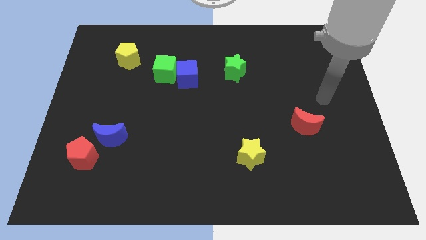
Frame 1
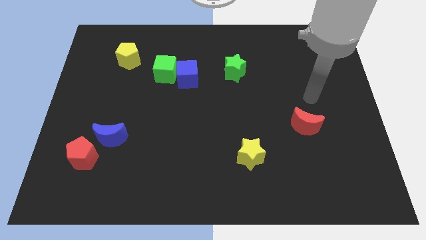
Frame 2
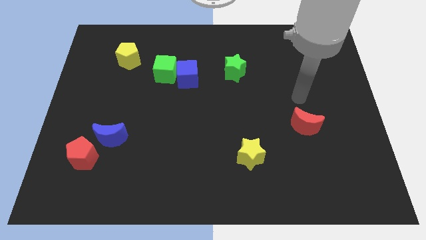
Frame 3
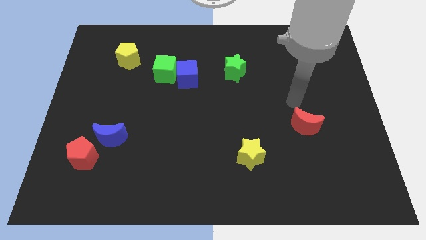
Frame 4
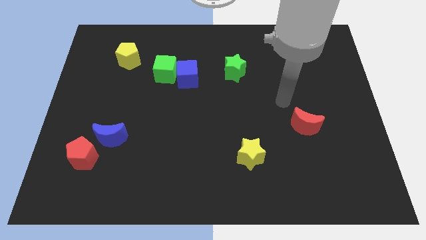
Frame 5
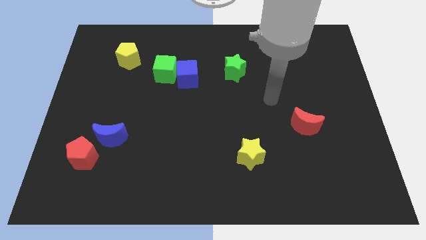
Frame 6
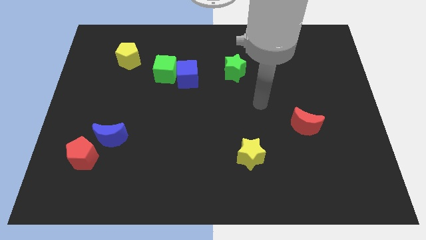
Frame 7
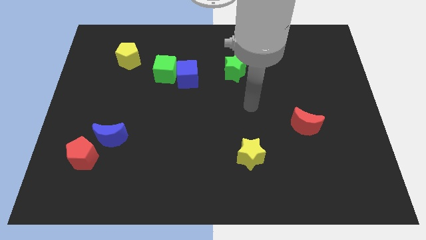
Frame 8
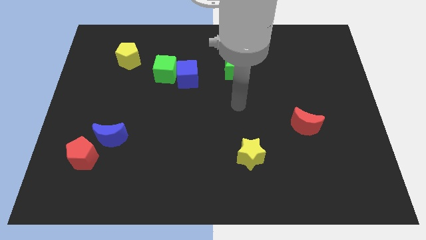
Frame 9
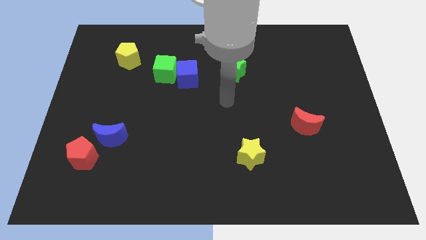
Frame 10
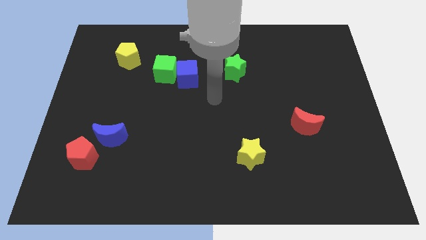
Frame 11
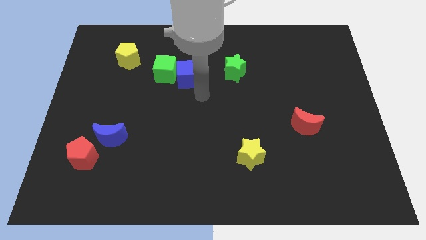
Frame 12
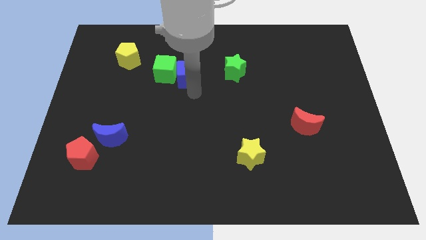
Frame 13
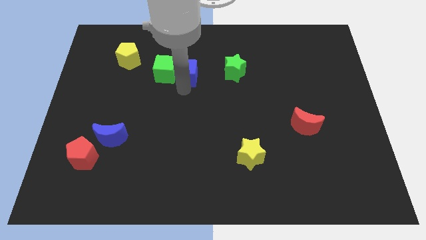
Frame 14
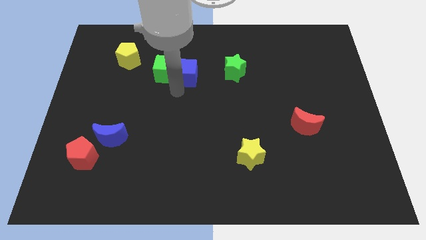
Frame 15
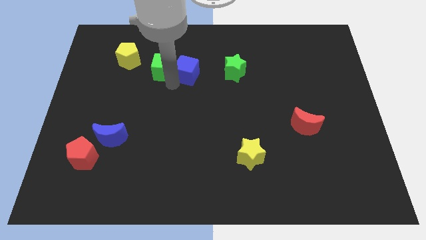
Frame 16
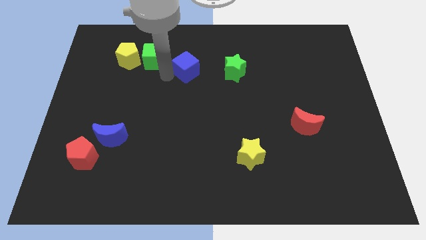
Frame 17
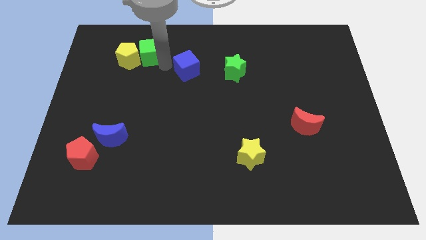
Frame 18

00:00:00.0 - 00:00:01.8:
separate the blue cube from the green cube

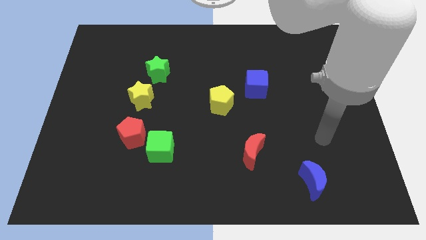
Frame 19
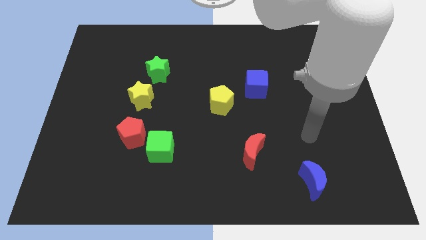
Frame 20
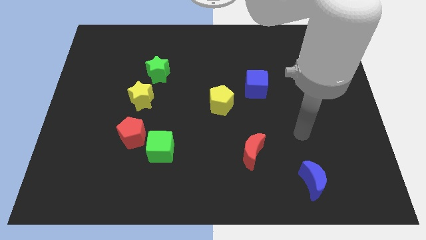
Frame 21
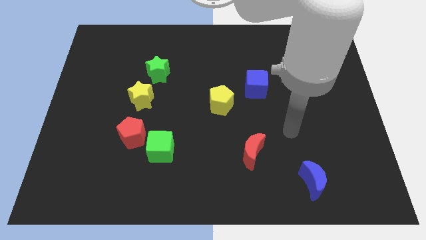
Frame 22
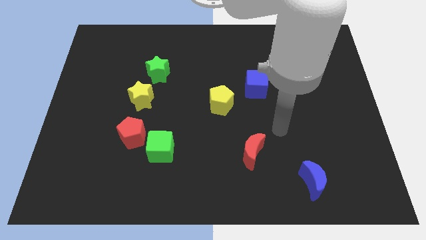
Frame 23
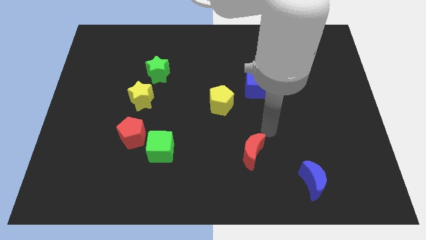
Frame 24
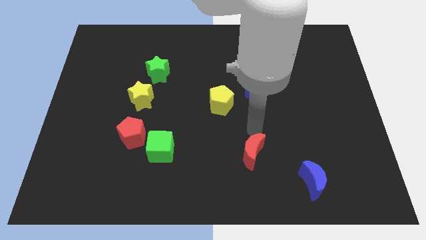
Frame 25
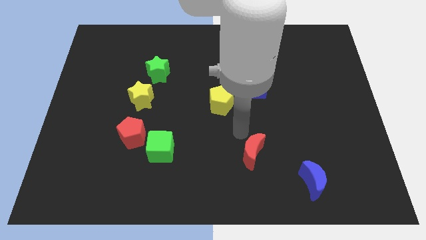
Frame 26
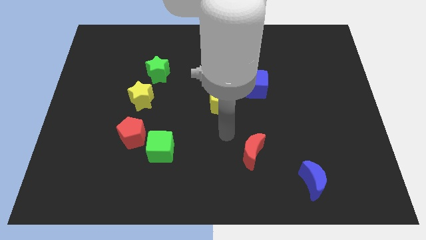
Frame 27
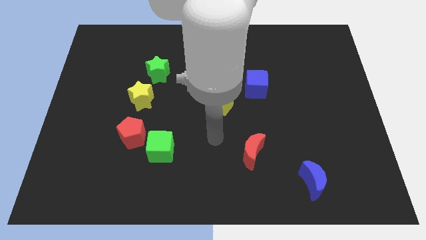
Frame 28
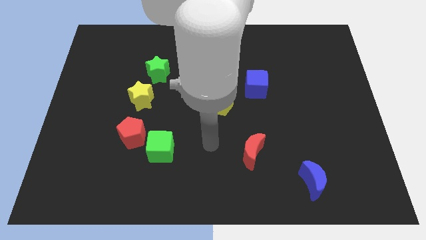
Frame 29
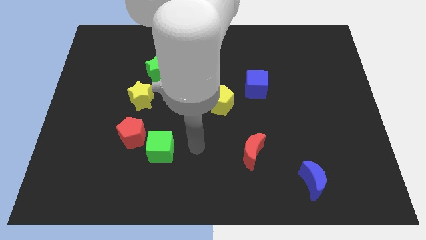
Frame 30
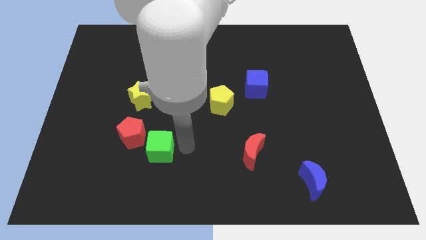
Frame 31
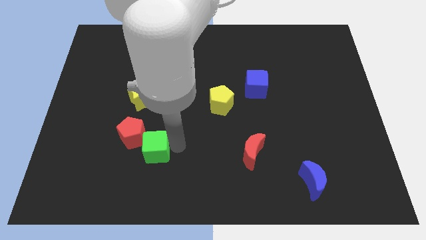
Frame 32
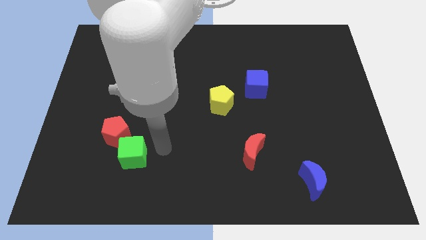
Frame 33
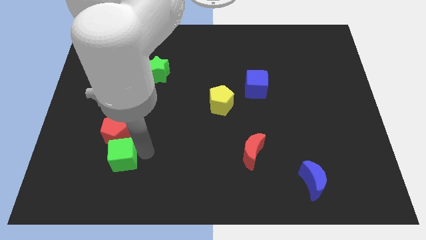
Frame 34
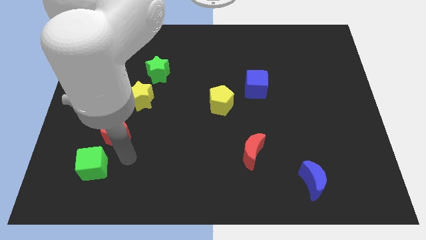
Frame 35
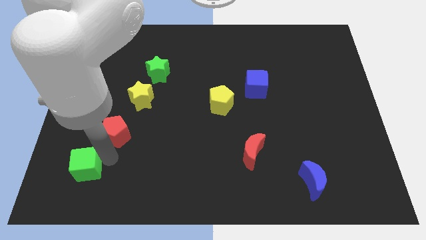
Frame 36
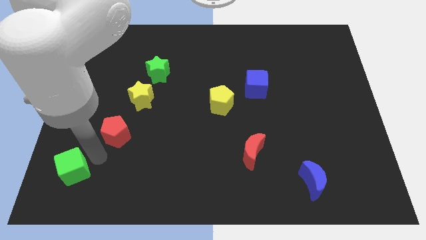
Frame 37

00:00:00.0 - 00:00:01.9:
move the red pentagon away from the green cube

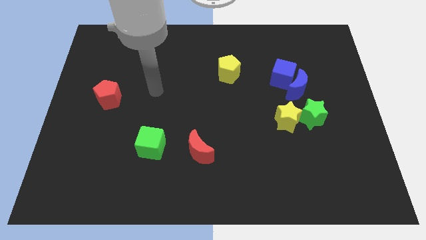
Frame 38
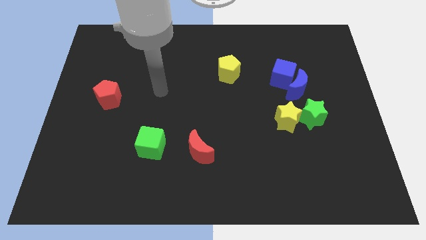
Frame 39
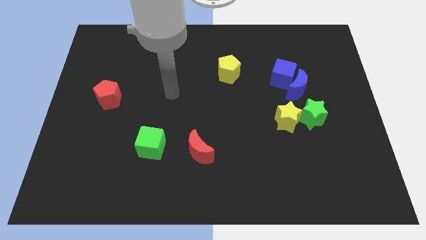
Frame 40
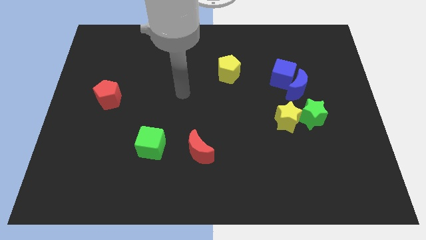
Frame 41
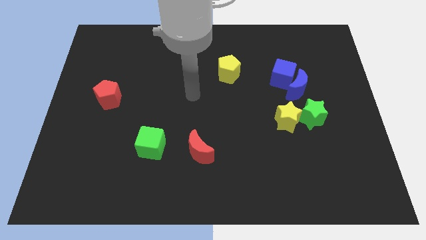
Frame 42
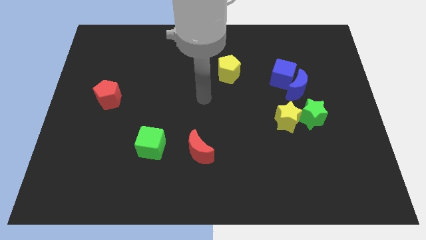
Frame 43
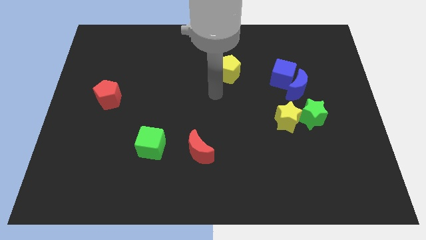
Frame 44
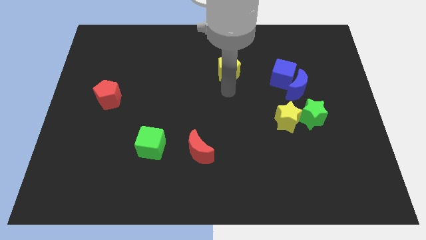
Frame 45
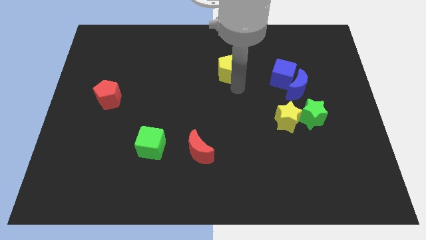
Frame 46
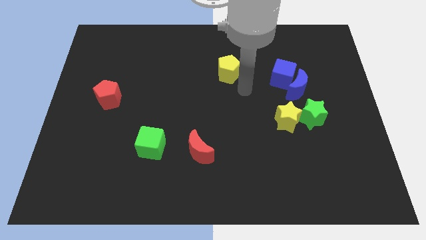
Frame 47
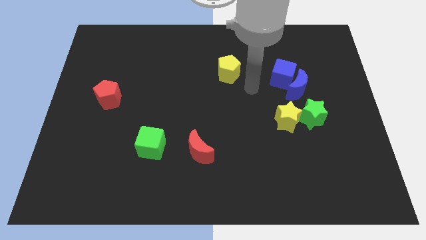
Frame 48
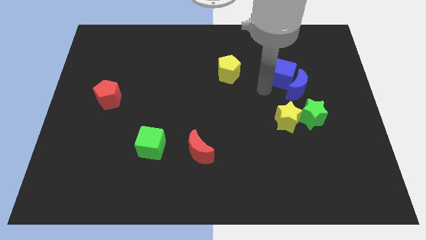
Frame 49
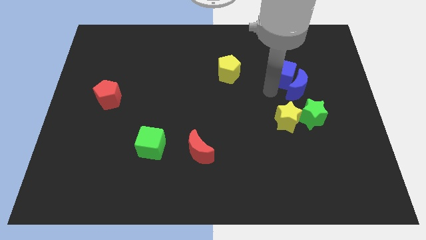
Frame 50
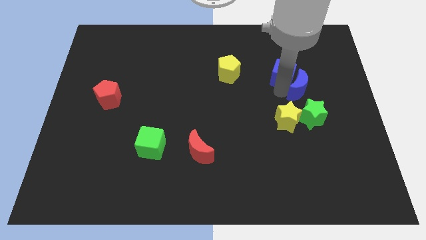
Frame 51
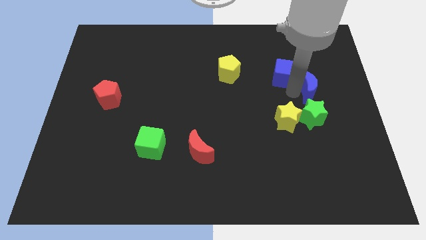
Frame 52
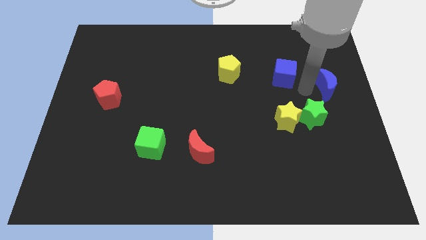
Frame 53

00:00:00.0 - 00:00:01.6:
move the blue cube away from the blue moon

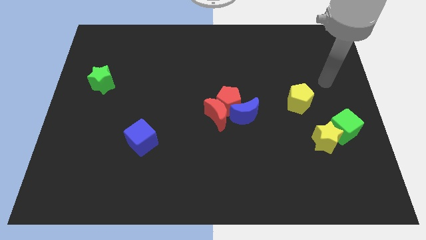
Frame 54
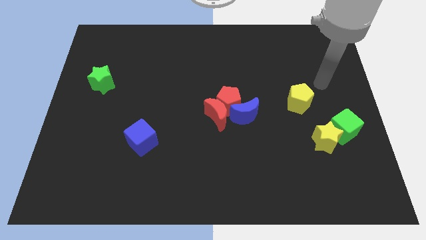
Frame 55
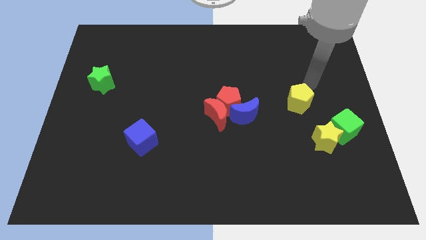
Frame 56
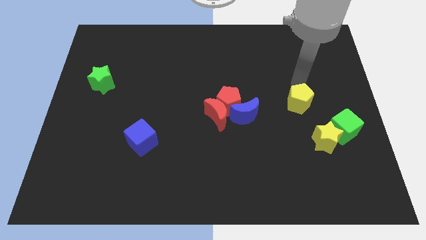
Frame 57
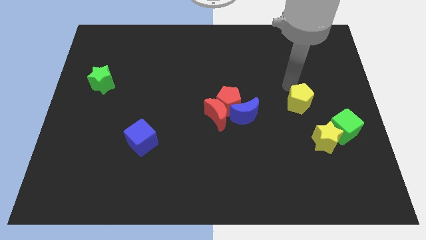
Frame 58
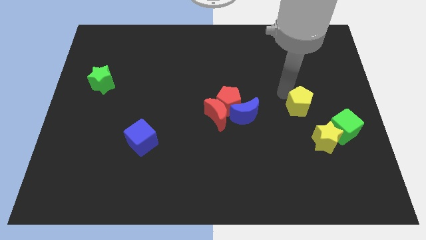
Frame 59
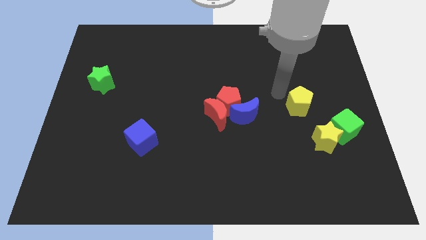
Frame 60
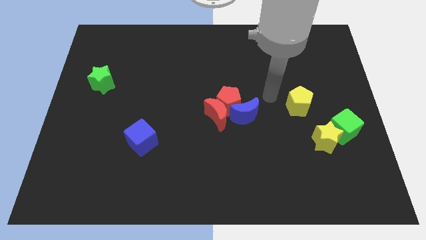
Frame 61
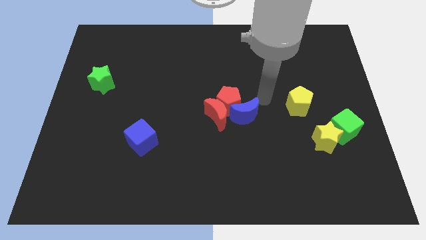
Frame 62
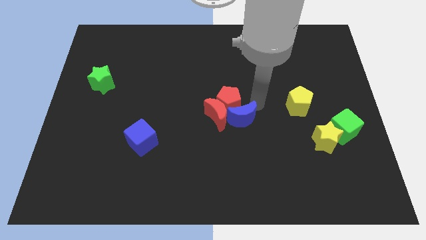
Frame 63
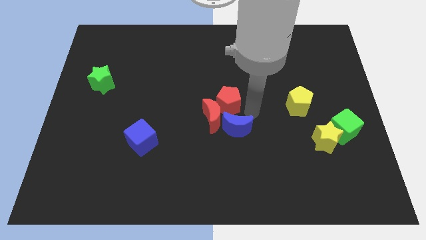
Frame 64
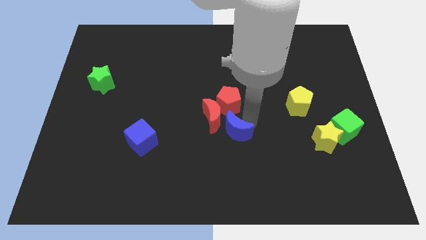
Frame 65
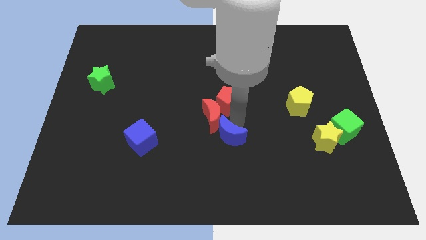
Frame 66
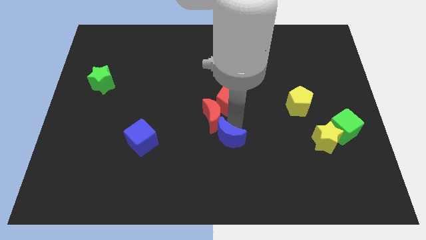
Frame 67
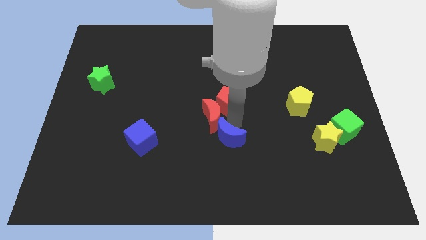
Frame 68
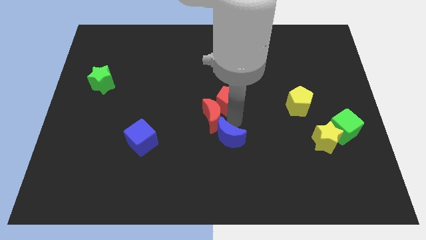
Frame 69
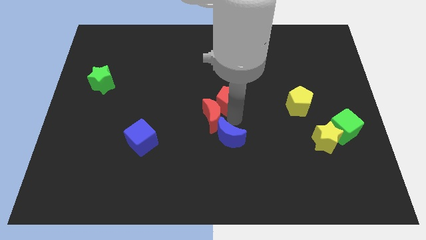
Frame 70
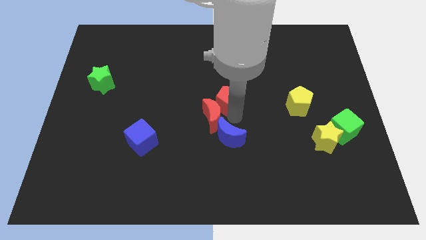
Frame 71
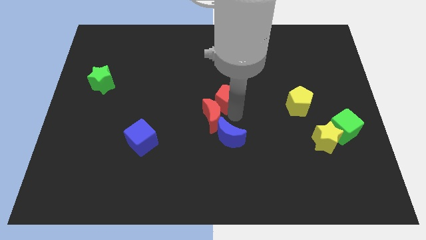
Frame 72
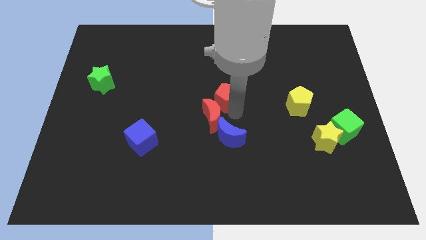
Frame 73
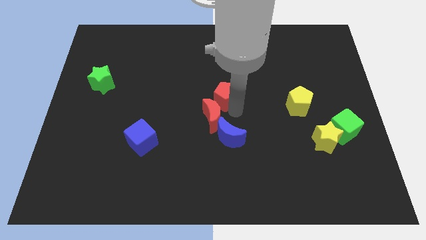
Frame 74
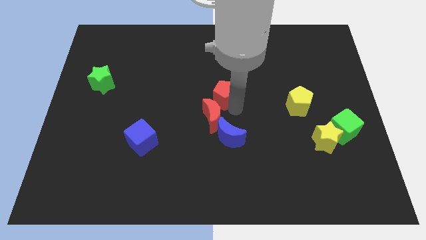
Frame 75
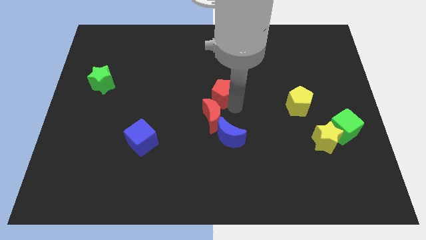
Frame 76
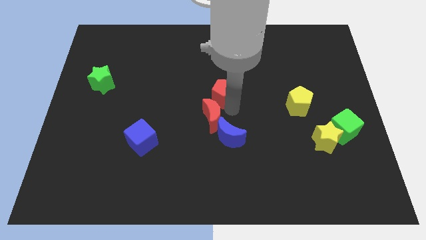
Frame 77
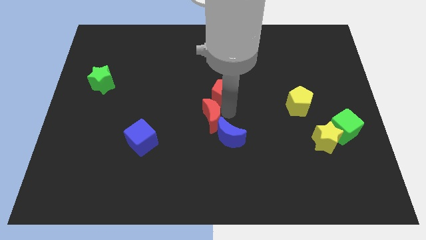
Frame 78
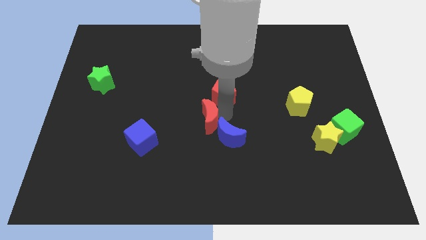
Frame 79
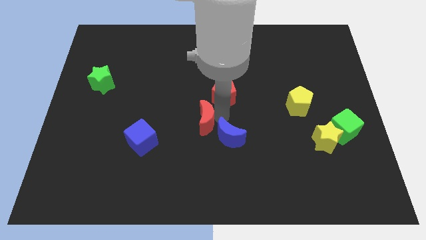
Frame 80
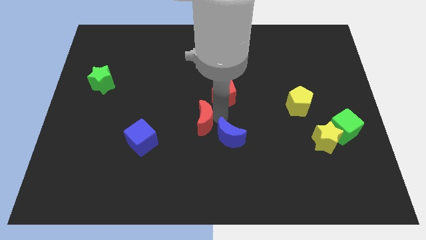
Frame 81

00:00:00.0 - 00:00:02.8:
separate the red pentagon from the red moon and blue moon

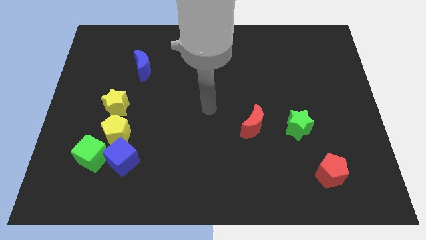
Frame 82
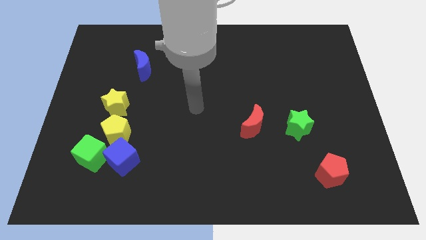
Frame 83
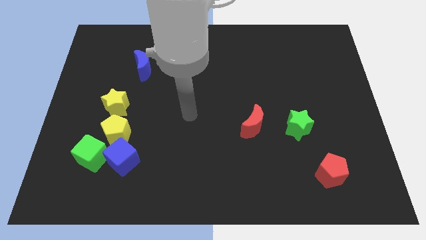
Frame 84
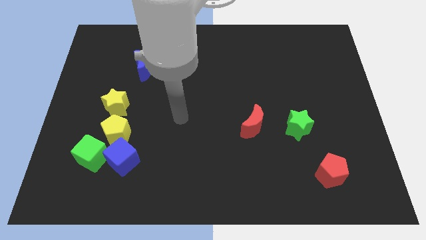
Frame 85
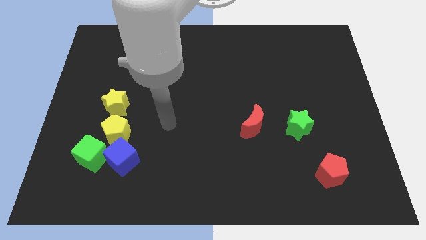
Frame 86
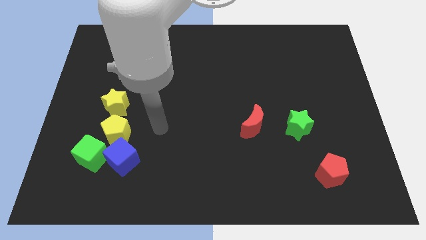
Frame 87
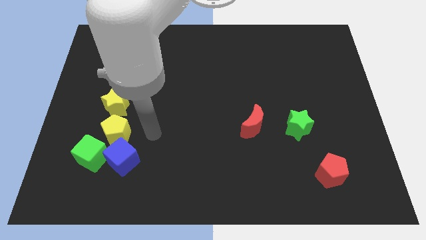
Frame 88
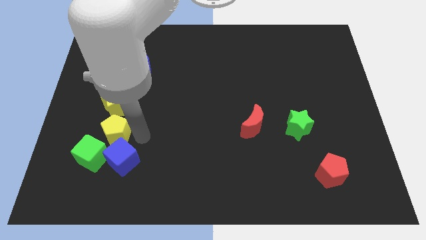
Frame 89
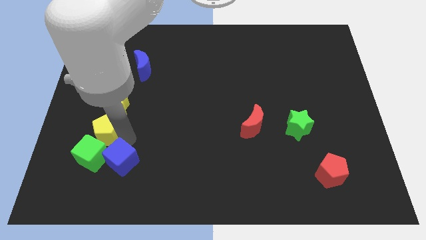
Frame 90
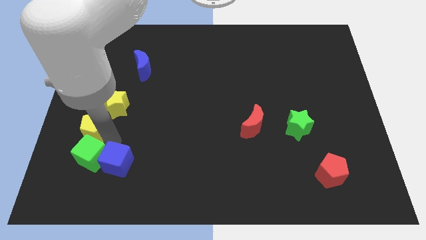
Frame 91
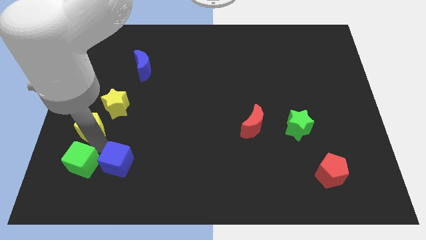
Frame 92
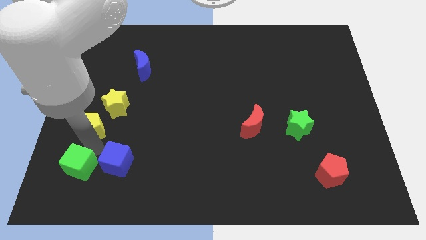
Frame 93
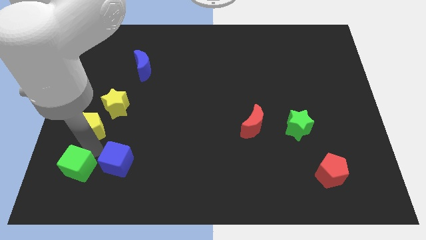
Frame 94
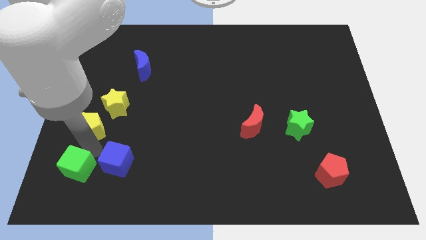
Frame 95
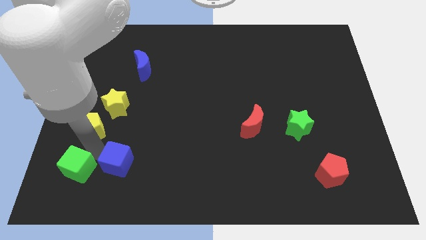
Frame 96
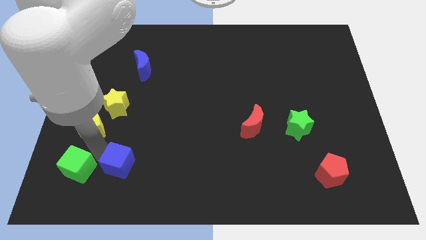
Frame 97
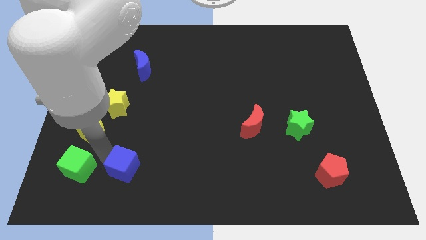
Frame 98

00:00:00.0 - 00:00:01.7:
move the blue cube away from the green cube and yellow pentagon
